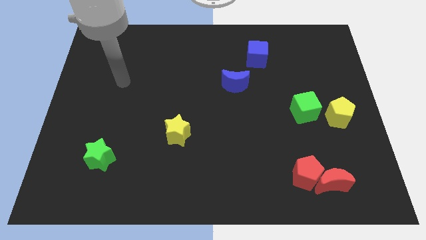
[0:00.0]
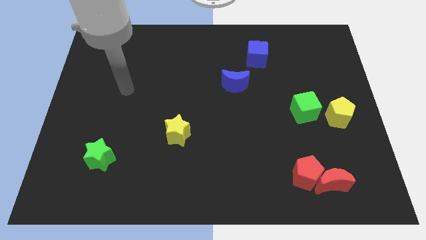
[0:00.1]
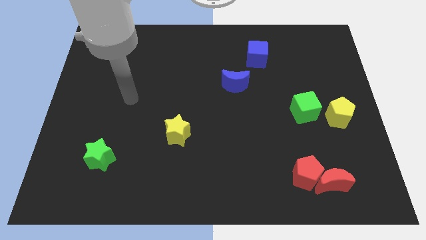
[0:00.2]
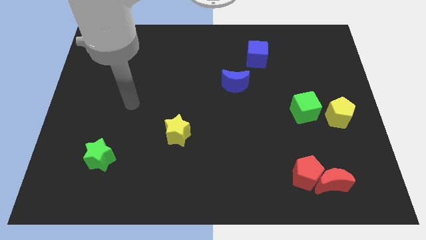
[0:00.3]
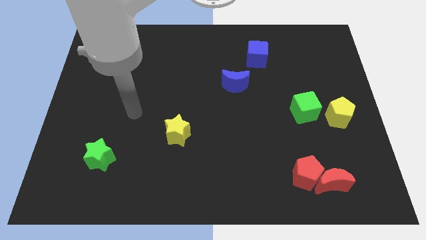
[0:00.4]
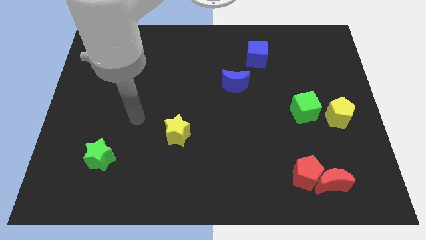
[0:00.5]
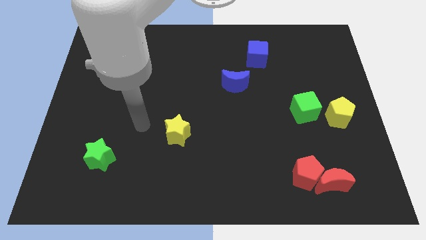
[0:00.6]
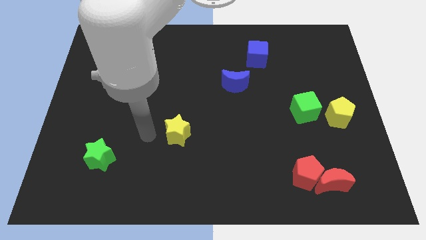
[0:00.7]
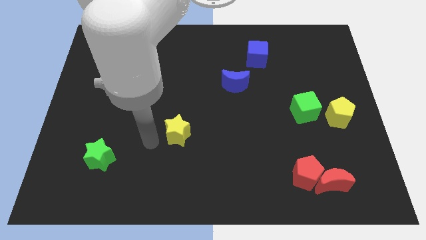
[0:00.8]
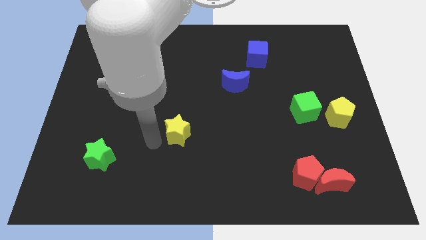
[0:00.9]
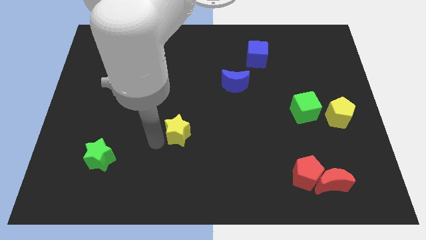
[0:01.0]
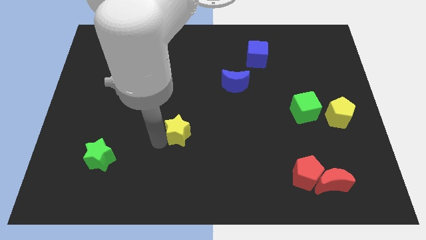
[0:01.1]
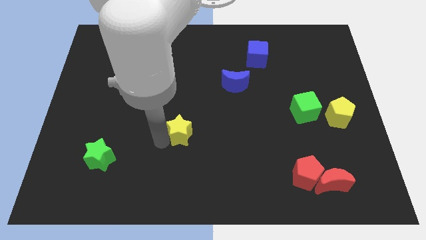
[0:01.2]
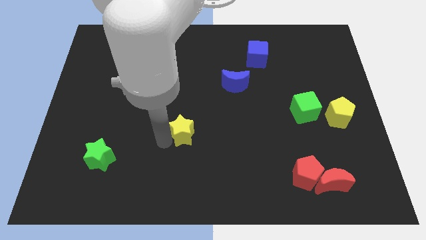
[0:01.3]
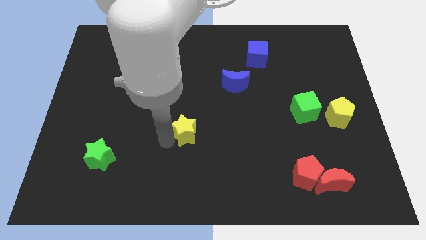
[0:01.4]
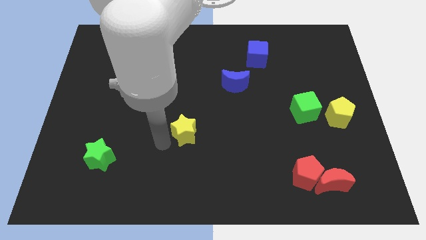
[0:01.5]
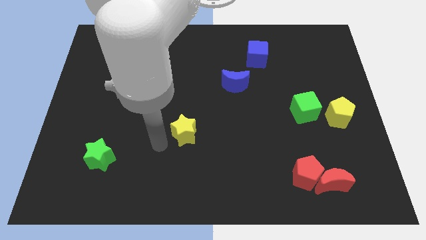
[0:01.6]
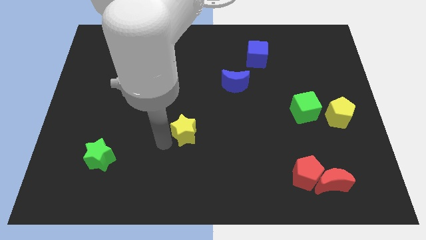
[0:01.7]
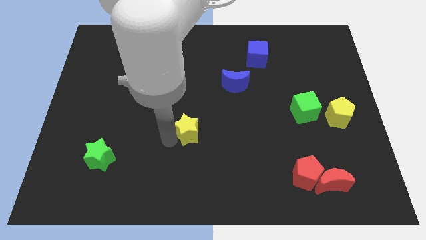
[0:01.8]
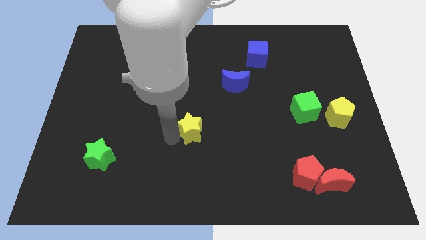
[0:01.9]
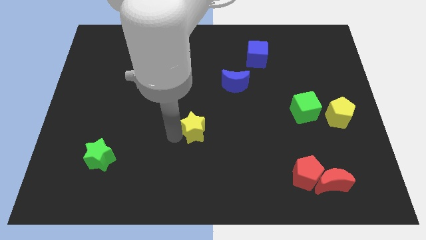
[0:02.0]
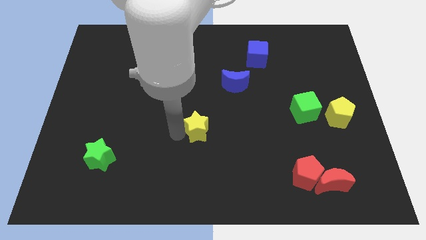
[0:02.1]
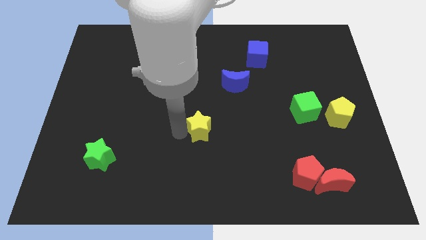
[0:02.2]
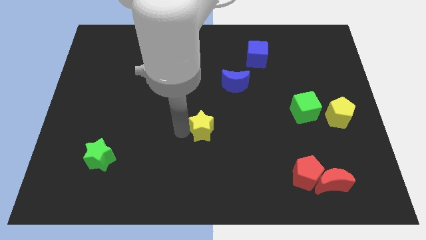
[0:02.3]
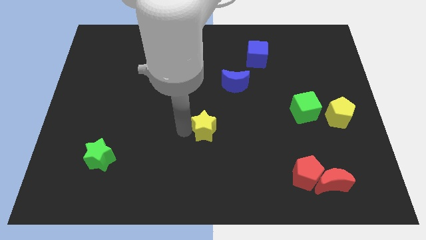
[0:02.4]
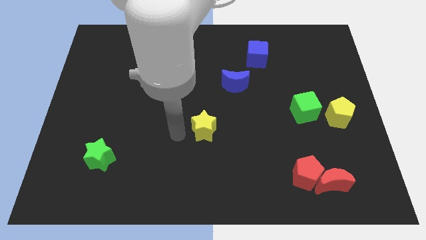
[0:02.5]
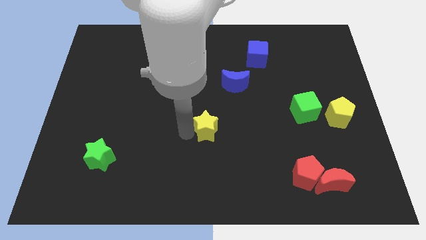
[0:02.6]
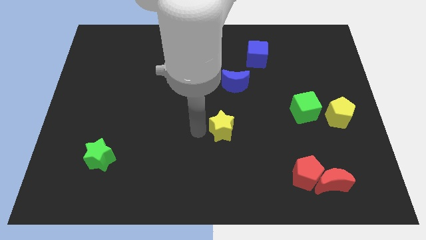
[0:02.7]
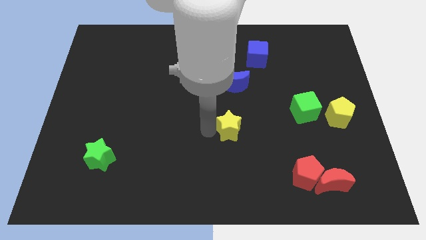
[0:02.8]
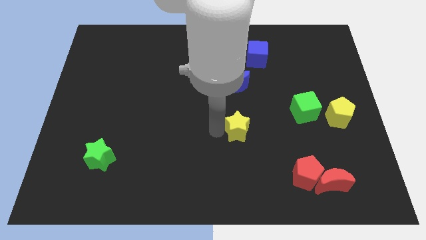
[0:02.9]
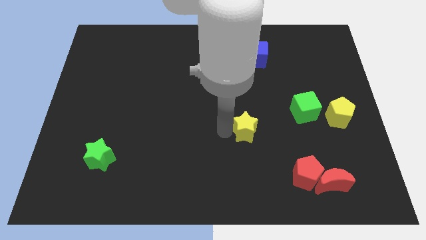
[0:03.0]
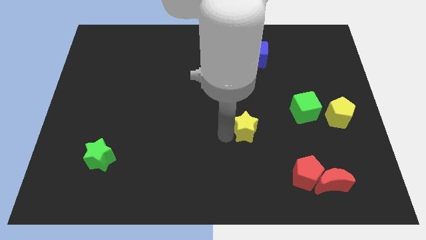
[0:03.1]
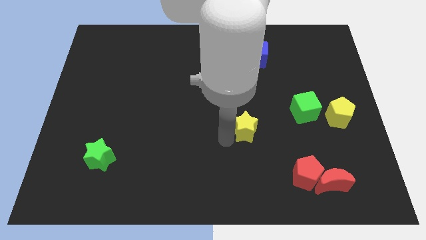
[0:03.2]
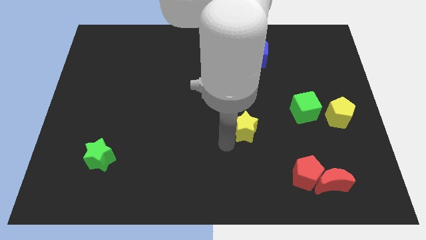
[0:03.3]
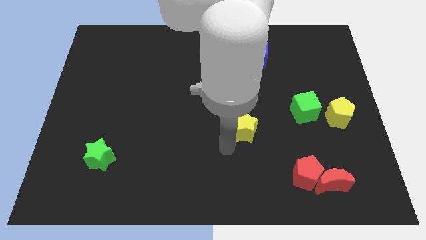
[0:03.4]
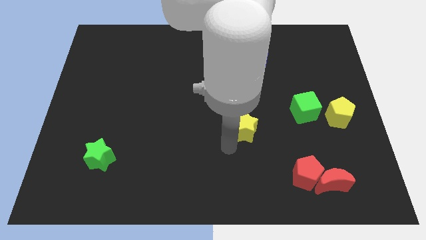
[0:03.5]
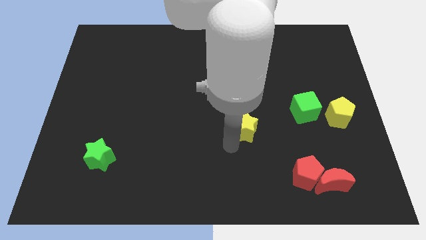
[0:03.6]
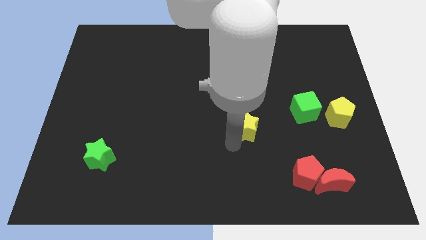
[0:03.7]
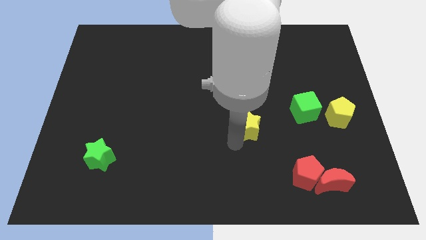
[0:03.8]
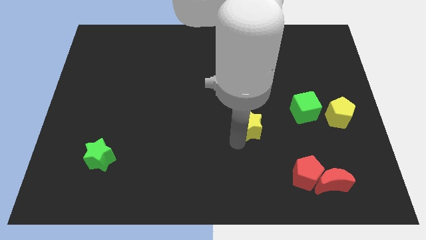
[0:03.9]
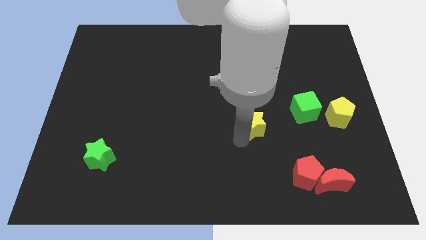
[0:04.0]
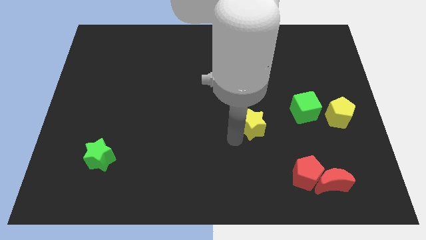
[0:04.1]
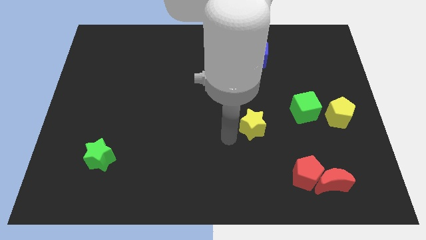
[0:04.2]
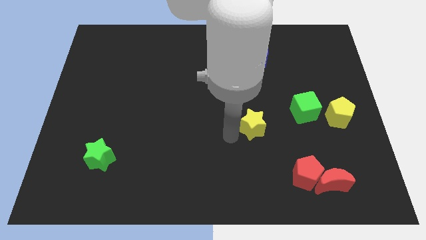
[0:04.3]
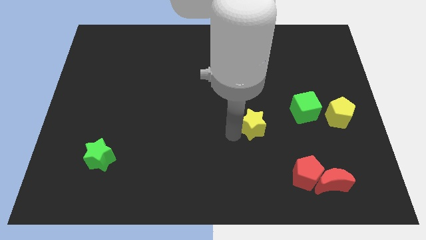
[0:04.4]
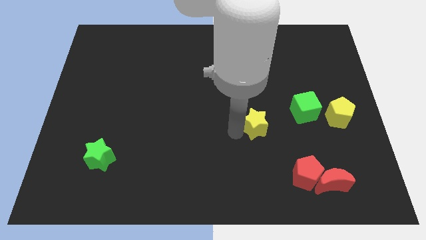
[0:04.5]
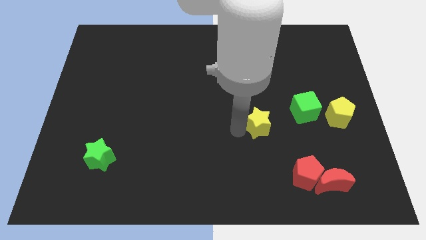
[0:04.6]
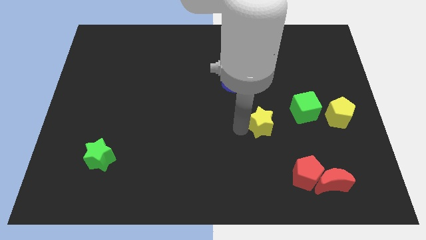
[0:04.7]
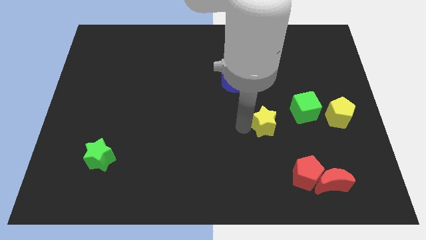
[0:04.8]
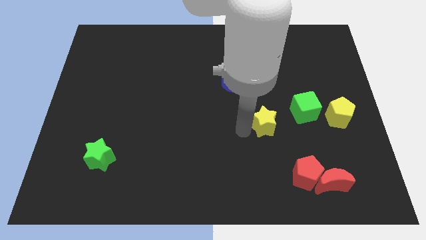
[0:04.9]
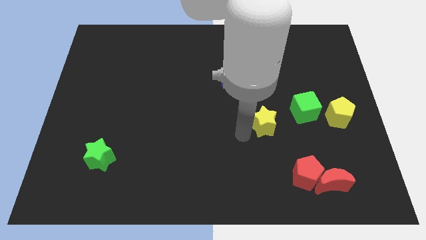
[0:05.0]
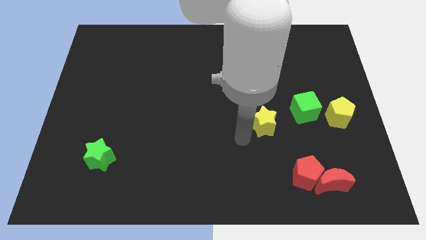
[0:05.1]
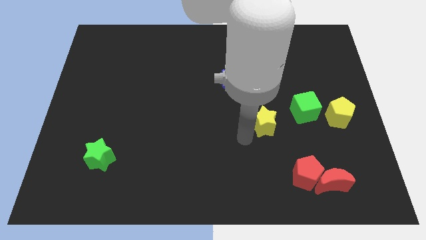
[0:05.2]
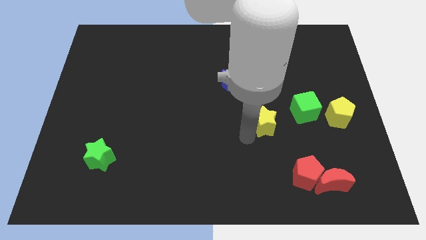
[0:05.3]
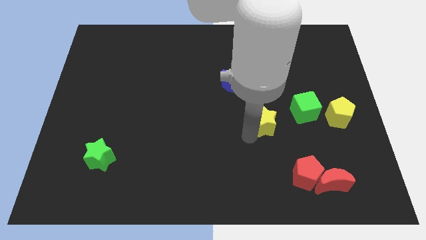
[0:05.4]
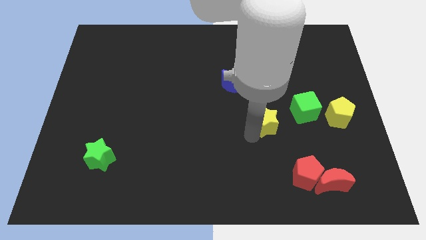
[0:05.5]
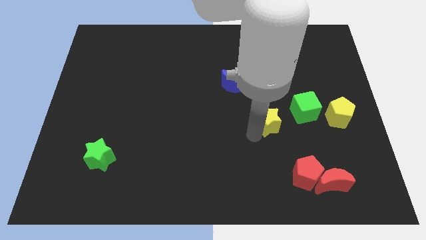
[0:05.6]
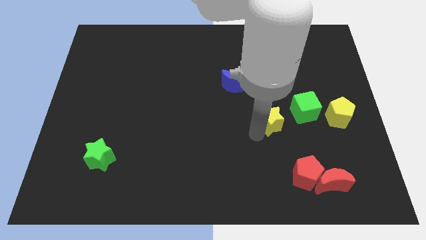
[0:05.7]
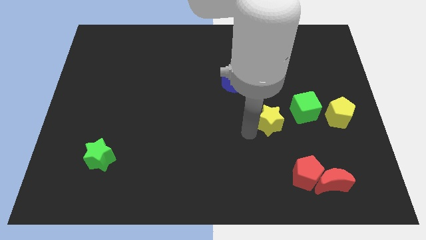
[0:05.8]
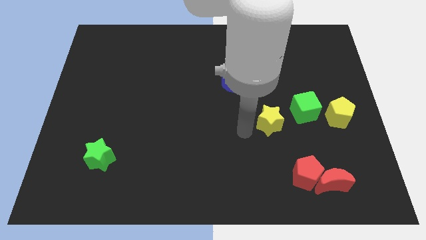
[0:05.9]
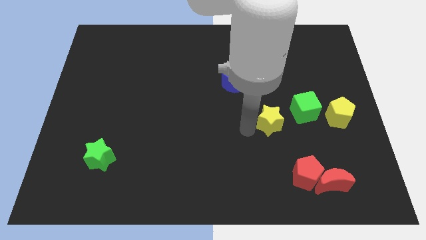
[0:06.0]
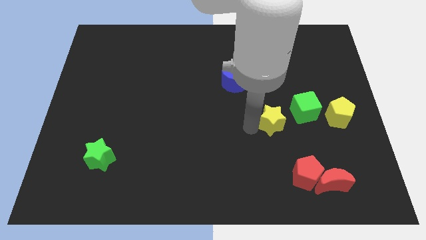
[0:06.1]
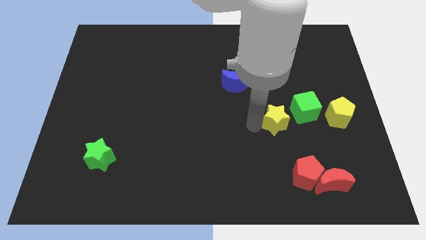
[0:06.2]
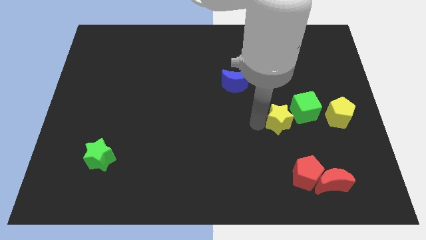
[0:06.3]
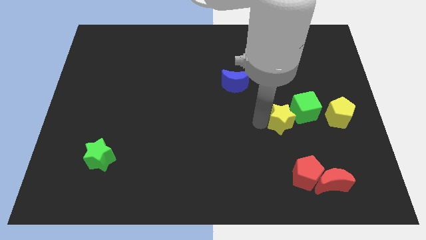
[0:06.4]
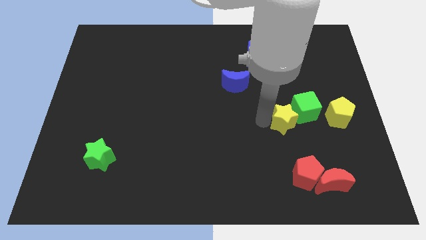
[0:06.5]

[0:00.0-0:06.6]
push the yellow star close to the green cube

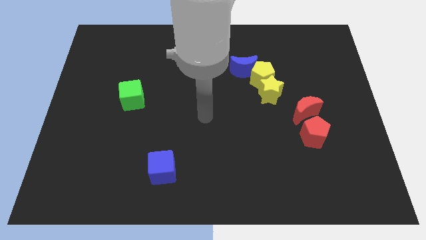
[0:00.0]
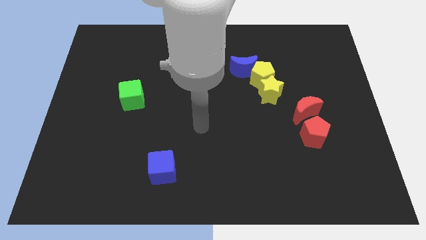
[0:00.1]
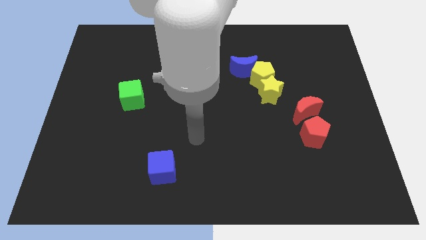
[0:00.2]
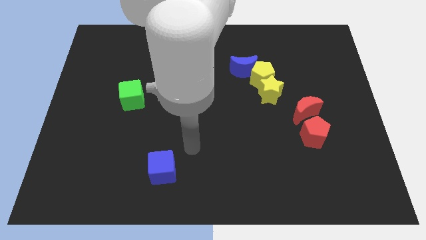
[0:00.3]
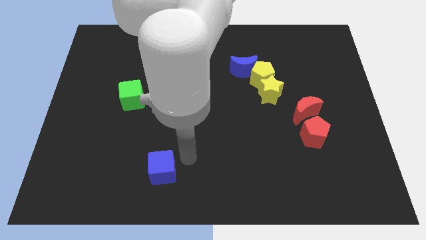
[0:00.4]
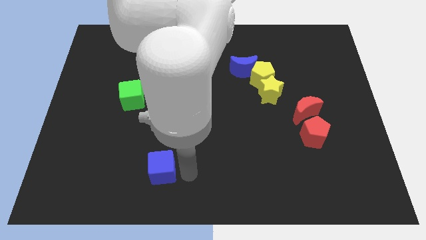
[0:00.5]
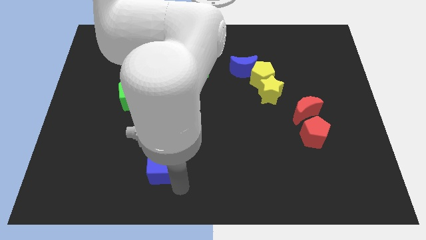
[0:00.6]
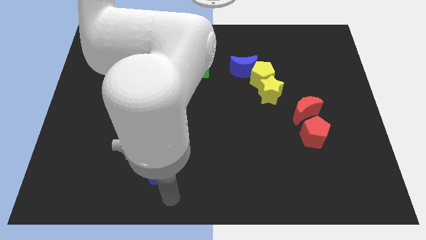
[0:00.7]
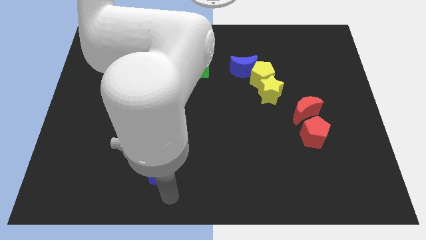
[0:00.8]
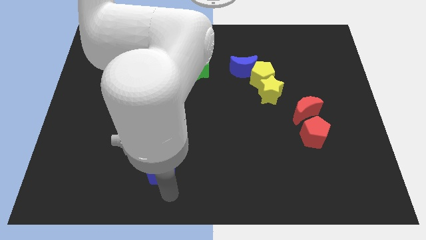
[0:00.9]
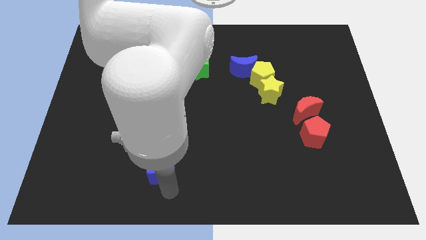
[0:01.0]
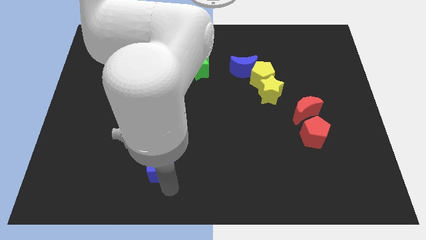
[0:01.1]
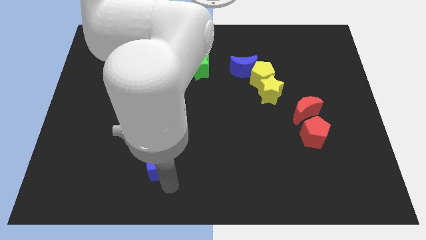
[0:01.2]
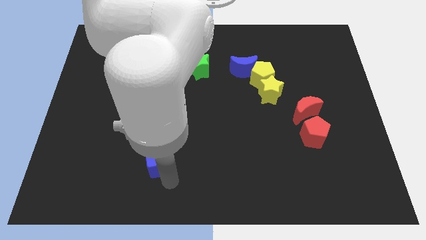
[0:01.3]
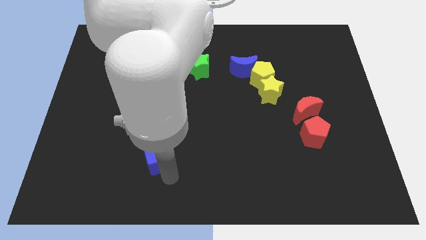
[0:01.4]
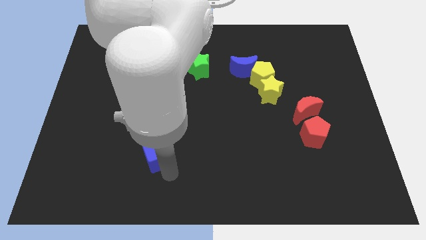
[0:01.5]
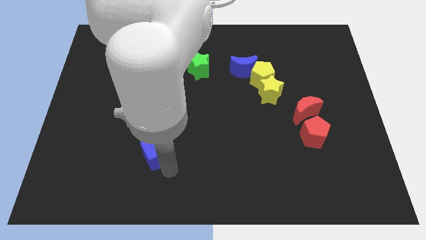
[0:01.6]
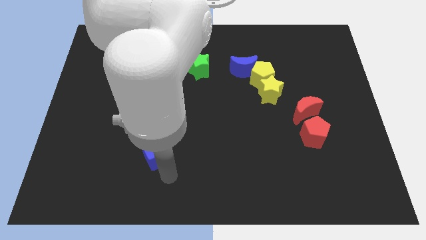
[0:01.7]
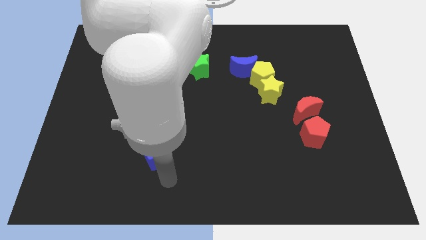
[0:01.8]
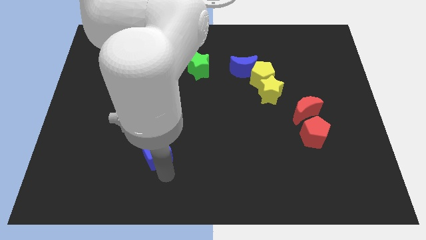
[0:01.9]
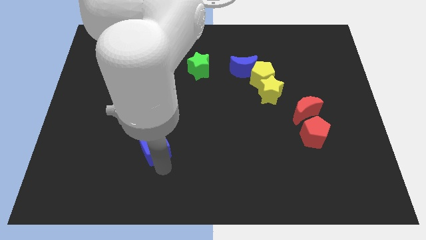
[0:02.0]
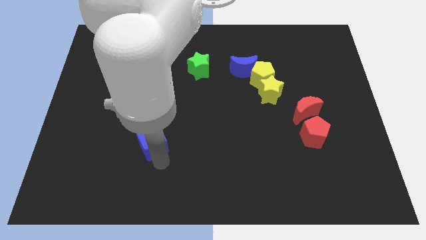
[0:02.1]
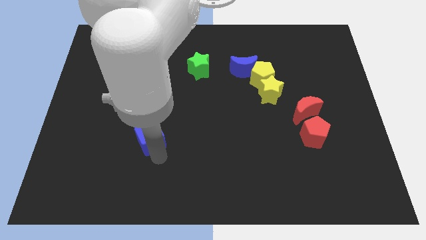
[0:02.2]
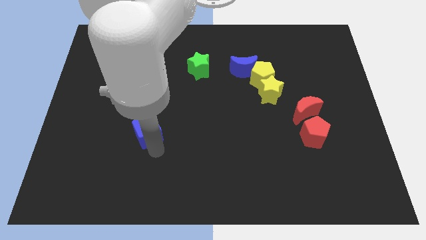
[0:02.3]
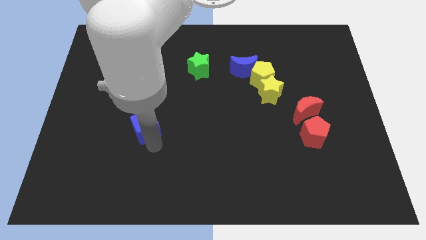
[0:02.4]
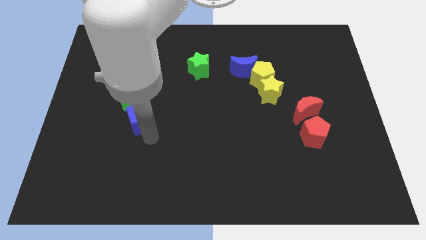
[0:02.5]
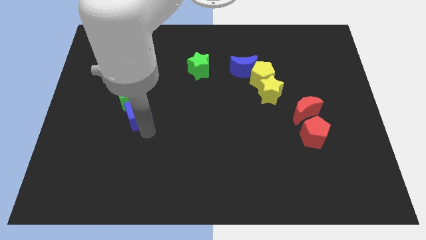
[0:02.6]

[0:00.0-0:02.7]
move the blue cube next to the green cube
